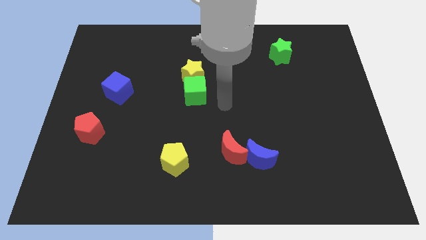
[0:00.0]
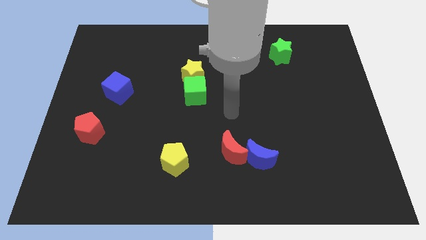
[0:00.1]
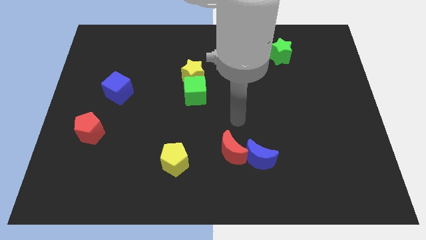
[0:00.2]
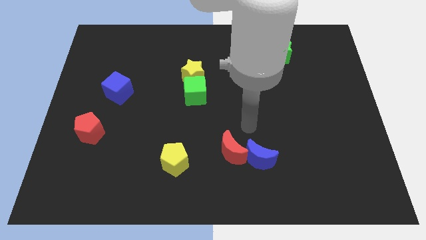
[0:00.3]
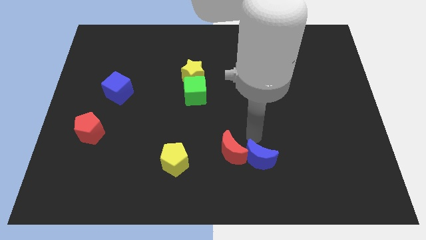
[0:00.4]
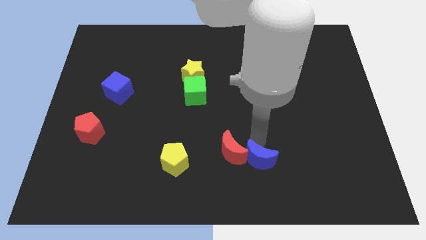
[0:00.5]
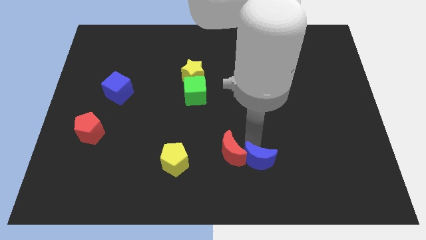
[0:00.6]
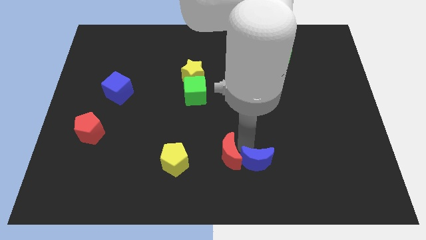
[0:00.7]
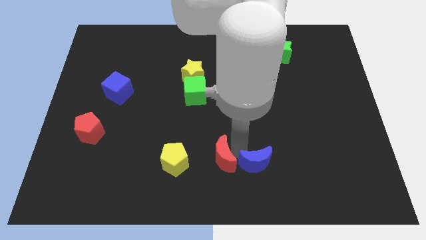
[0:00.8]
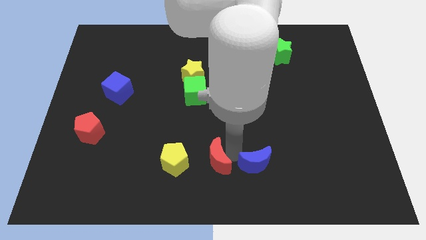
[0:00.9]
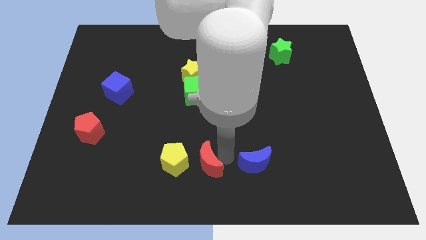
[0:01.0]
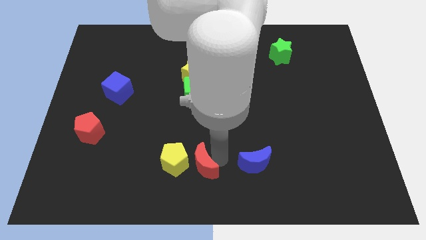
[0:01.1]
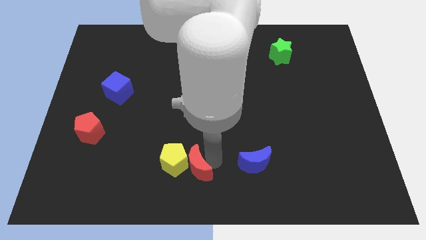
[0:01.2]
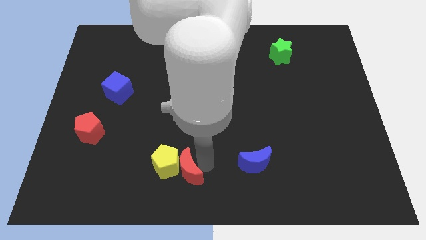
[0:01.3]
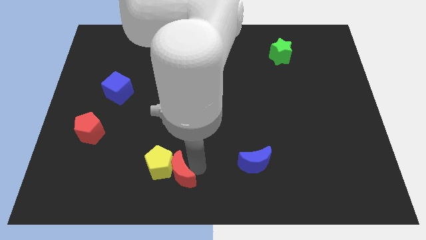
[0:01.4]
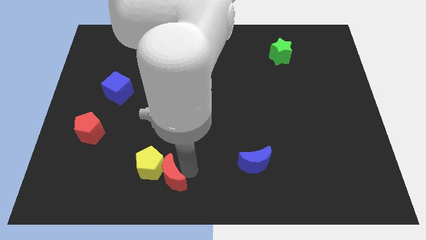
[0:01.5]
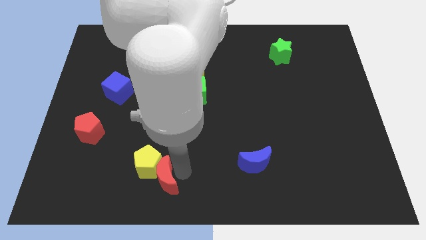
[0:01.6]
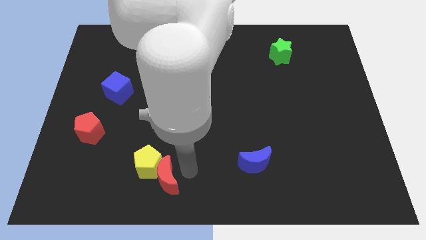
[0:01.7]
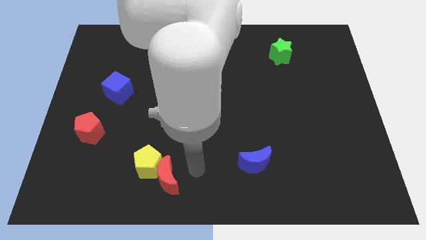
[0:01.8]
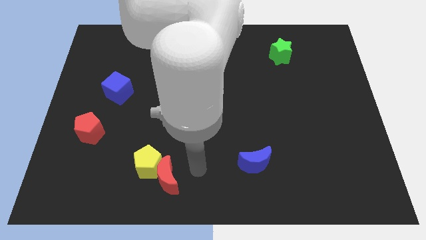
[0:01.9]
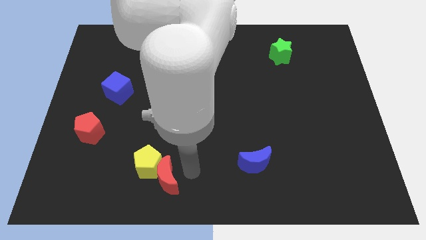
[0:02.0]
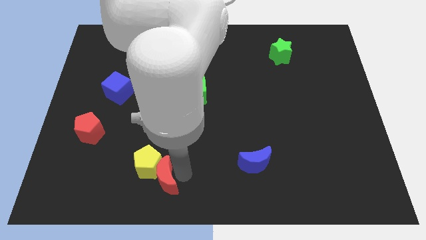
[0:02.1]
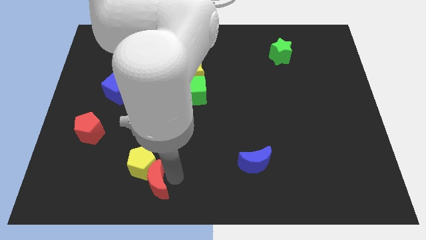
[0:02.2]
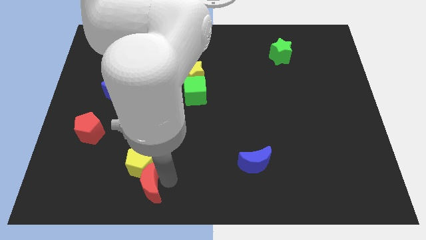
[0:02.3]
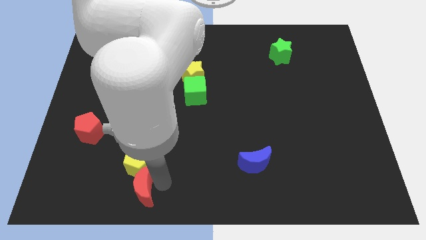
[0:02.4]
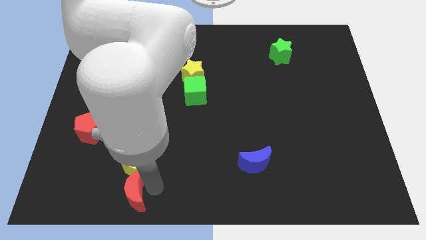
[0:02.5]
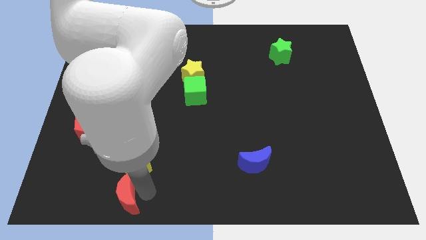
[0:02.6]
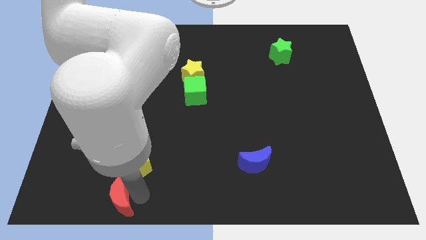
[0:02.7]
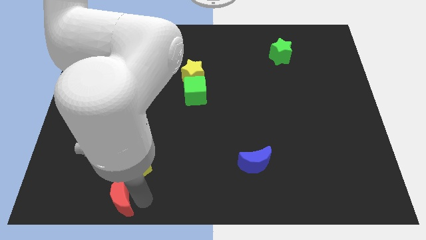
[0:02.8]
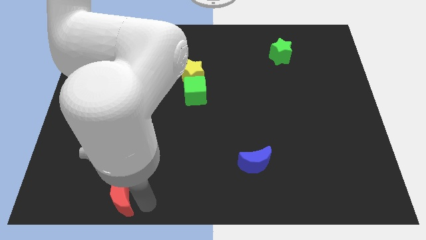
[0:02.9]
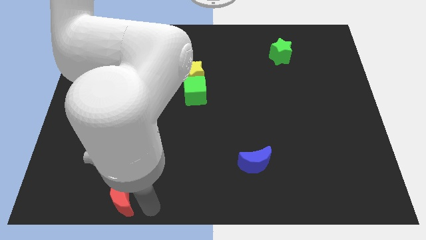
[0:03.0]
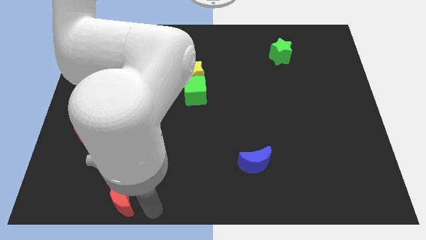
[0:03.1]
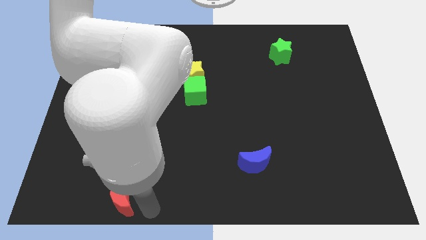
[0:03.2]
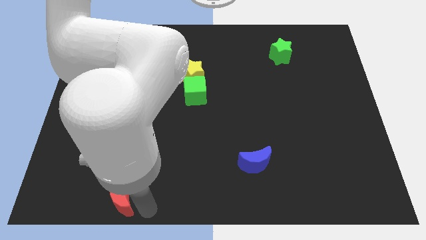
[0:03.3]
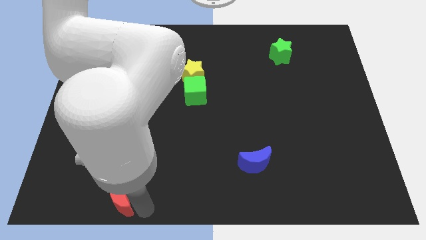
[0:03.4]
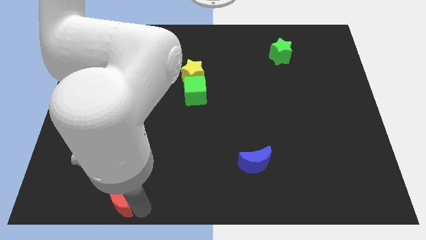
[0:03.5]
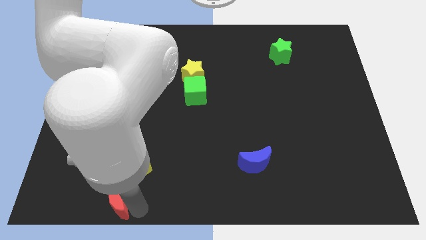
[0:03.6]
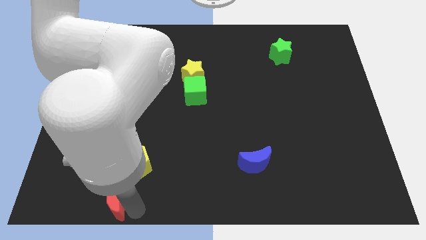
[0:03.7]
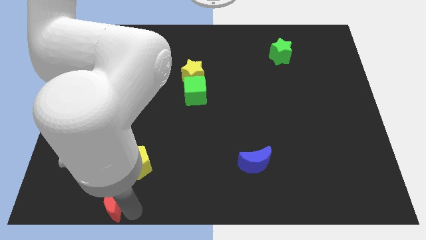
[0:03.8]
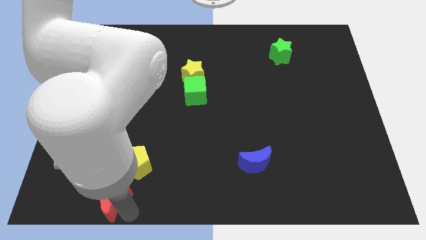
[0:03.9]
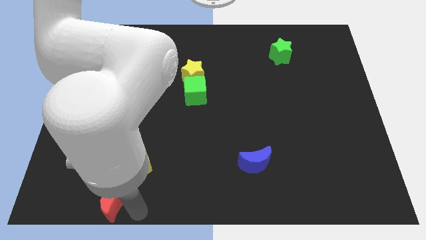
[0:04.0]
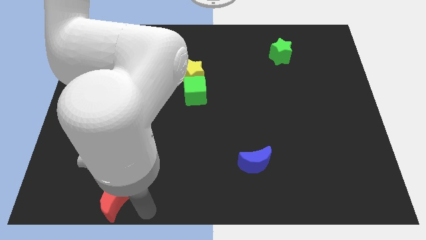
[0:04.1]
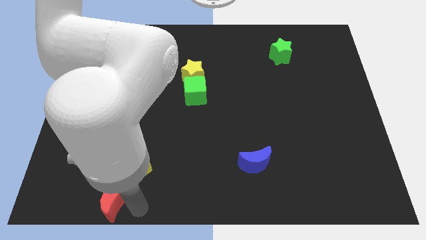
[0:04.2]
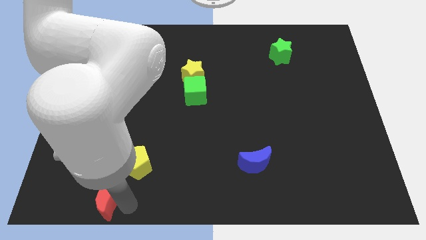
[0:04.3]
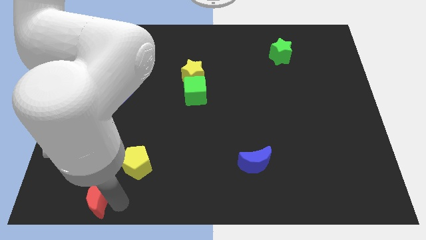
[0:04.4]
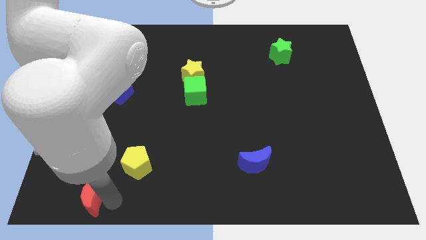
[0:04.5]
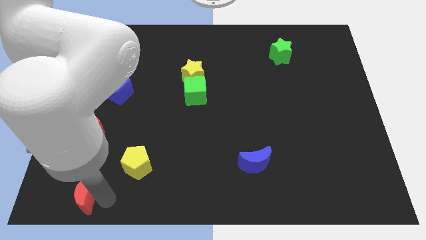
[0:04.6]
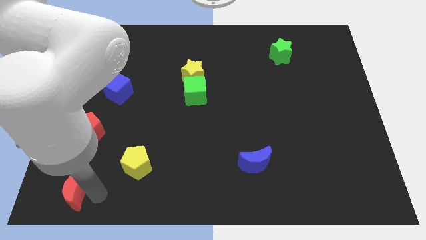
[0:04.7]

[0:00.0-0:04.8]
move the red moon to the bottom left

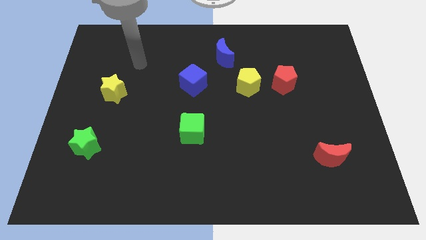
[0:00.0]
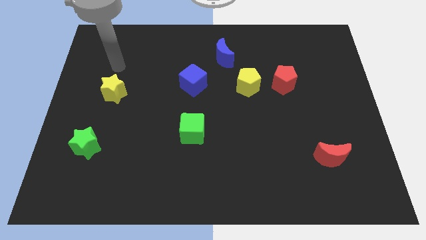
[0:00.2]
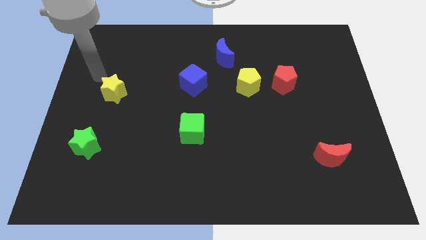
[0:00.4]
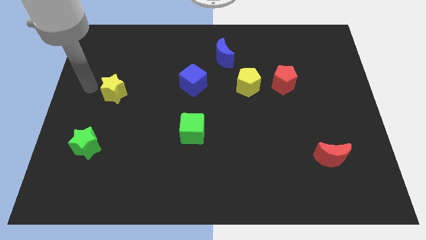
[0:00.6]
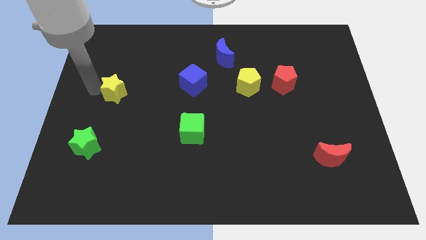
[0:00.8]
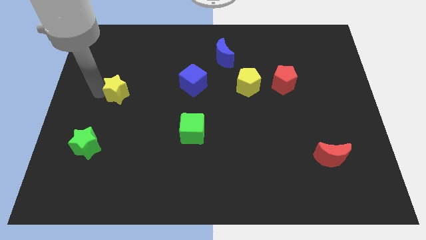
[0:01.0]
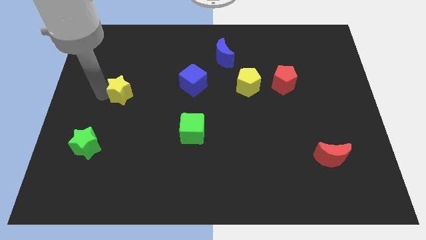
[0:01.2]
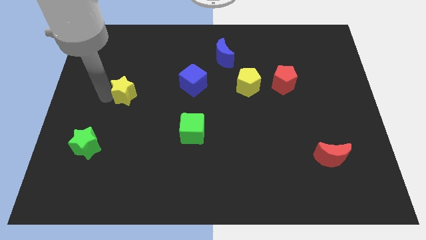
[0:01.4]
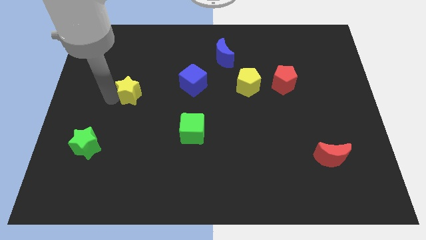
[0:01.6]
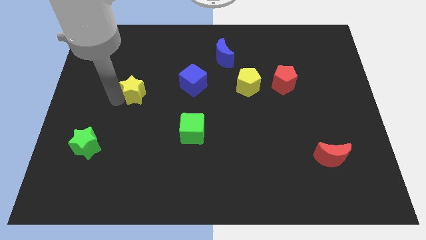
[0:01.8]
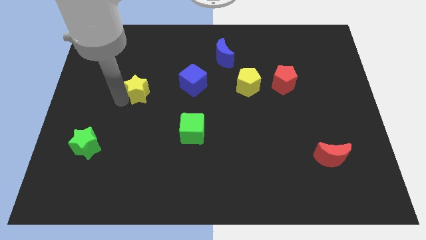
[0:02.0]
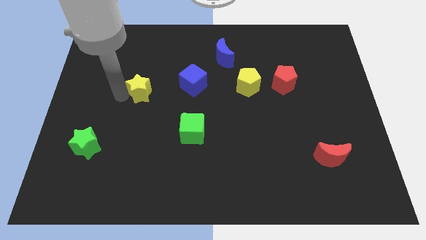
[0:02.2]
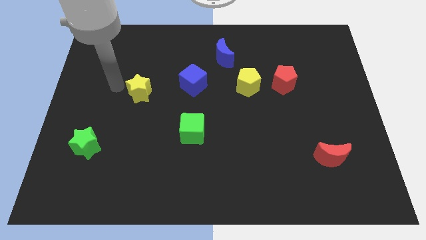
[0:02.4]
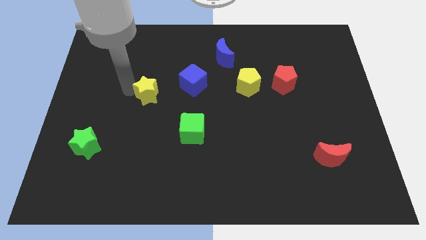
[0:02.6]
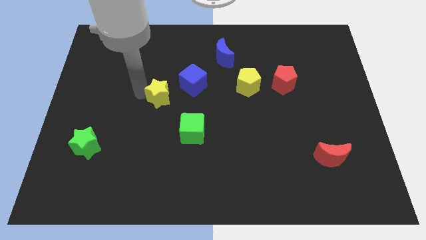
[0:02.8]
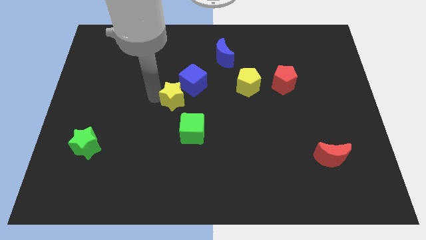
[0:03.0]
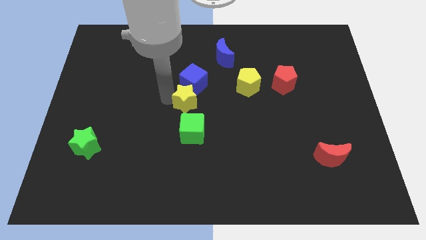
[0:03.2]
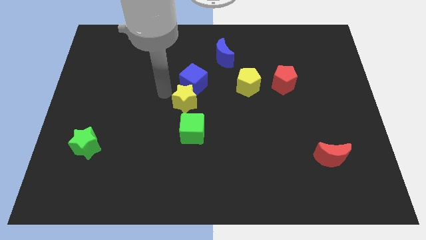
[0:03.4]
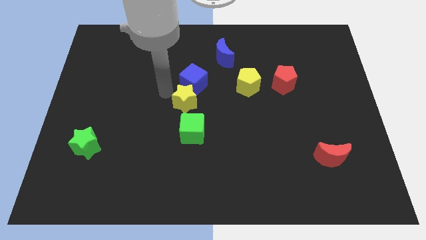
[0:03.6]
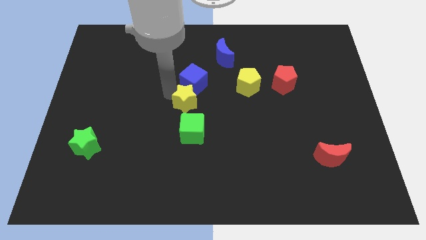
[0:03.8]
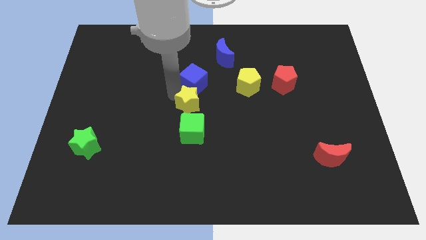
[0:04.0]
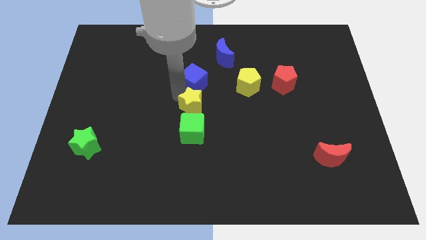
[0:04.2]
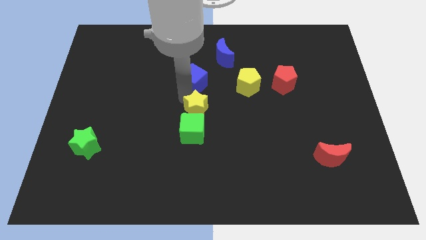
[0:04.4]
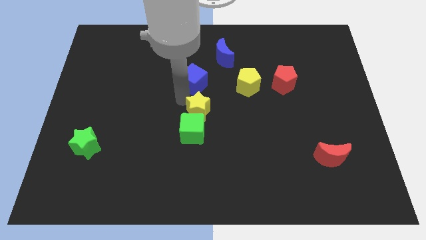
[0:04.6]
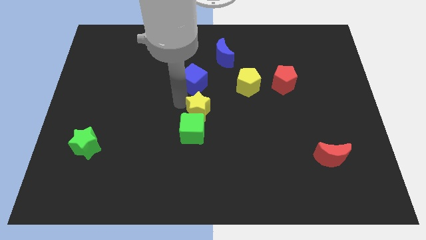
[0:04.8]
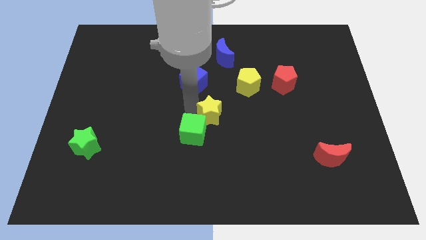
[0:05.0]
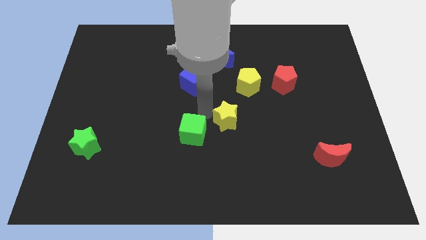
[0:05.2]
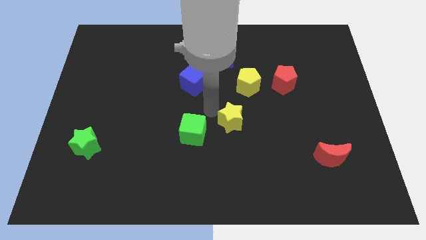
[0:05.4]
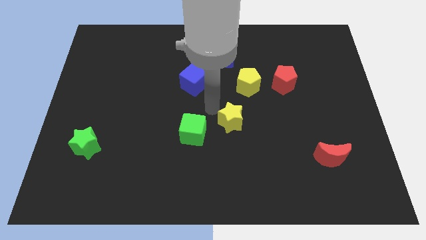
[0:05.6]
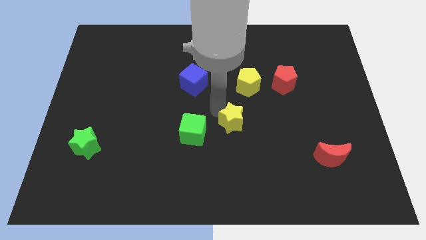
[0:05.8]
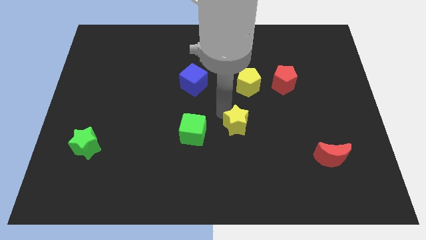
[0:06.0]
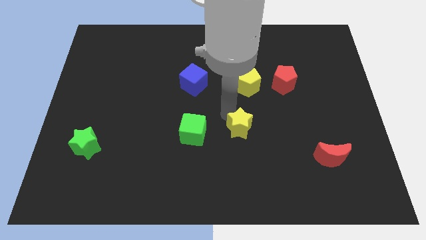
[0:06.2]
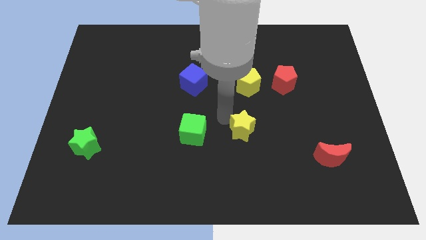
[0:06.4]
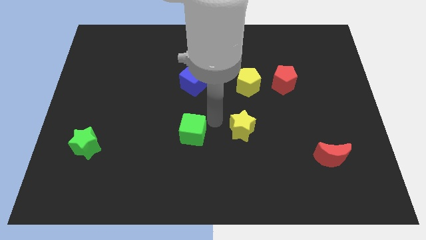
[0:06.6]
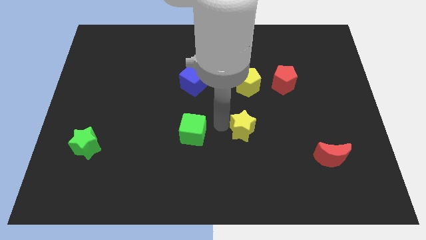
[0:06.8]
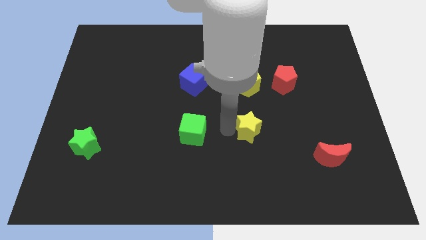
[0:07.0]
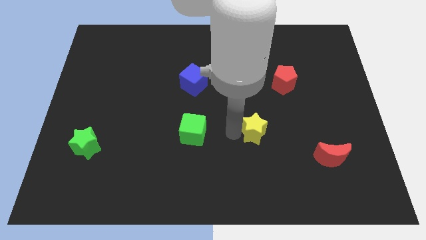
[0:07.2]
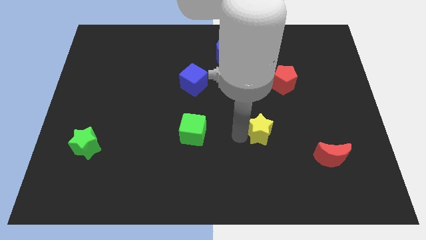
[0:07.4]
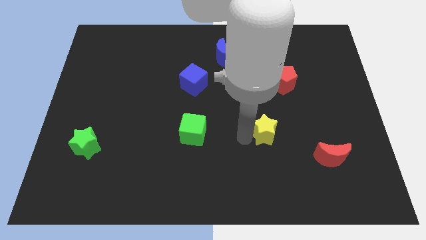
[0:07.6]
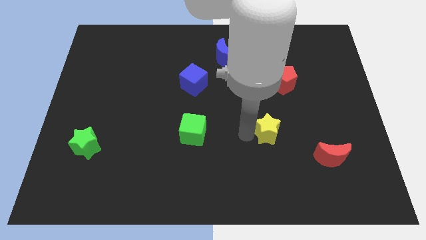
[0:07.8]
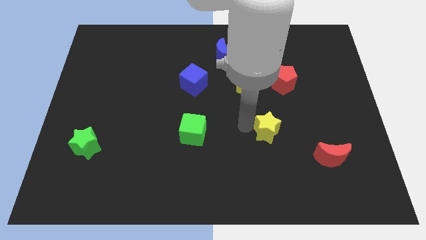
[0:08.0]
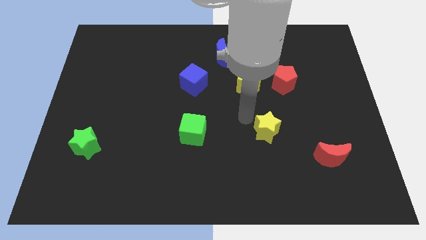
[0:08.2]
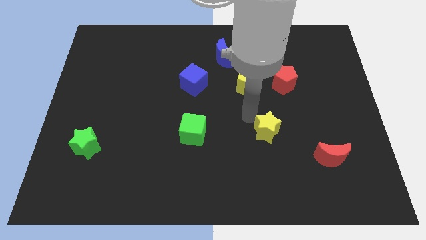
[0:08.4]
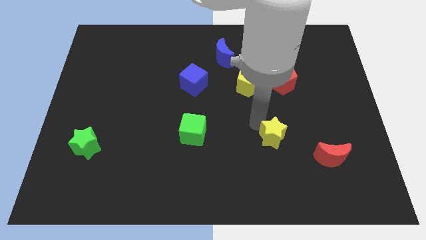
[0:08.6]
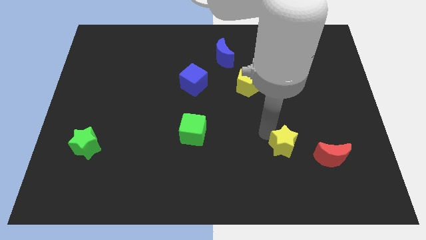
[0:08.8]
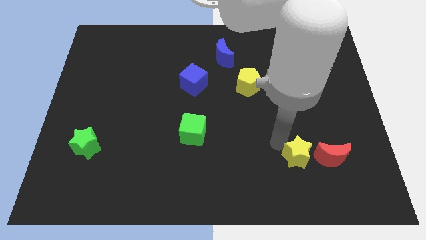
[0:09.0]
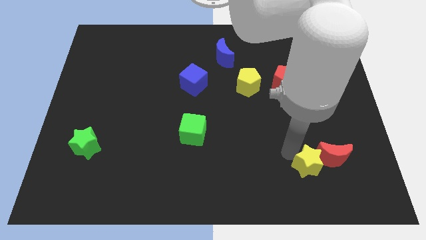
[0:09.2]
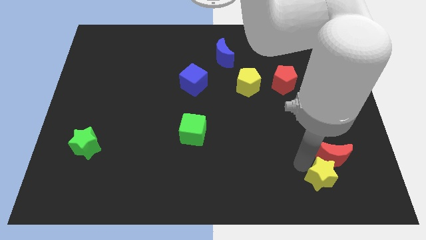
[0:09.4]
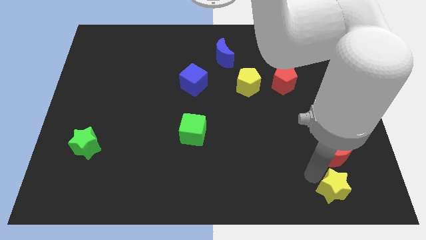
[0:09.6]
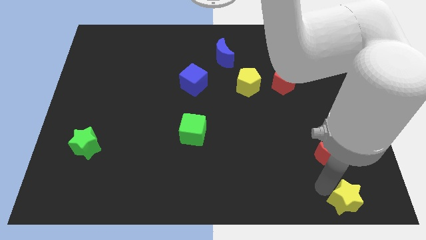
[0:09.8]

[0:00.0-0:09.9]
move the yellow star to the bottom right of the board
